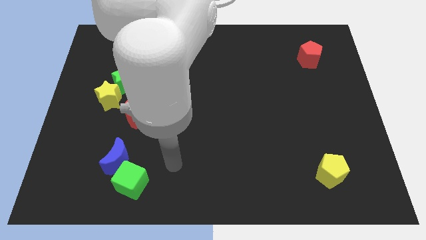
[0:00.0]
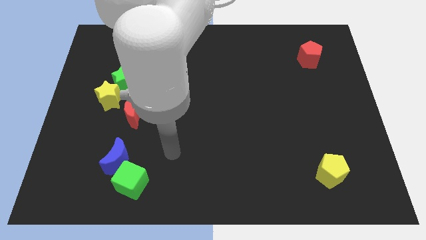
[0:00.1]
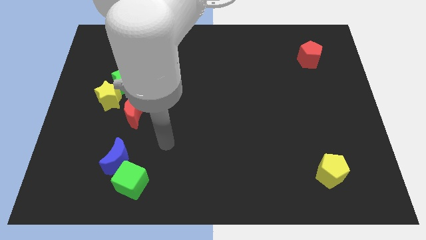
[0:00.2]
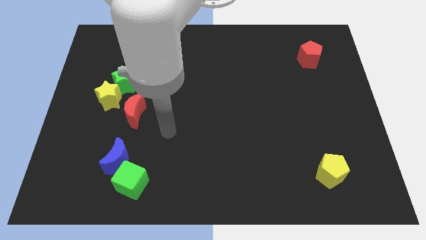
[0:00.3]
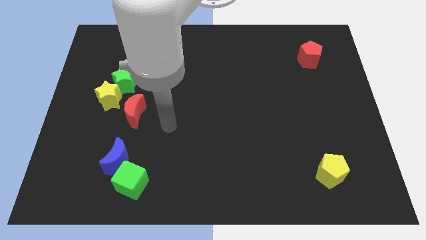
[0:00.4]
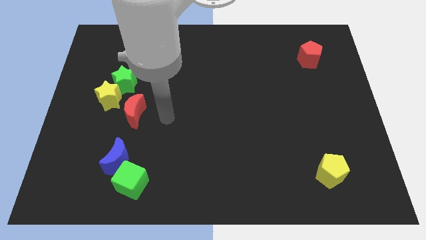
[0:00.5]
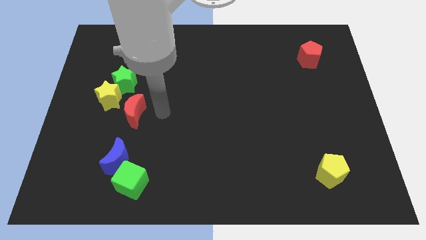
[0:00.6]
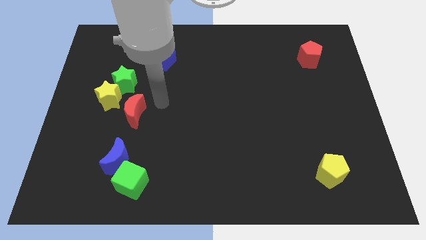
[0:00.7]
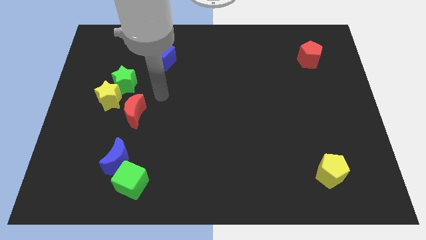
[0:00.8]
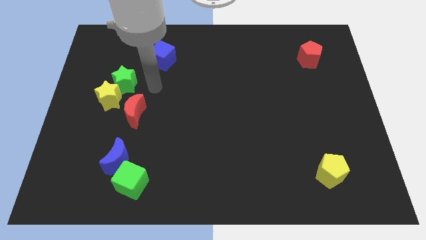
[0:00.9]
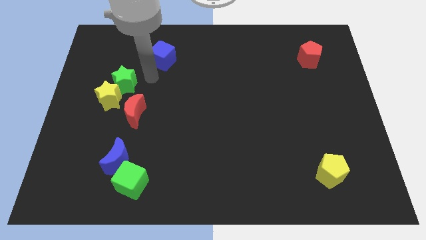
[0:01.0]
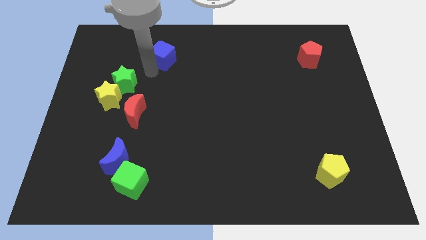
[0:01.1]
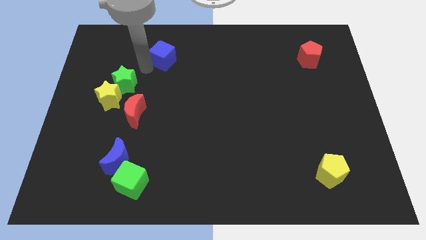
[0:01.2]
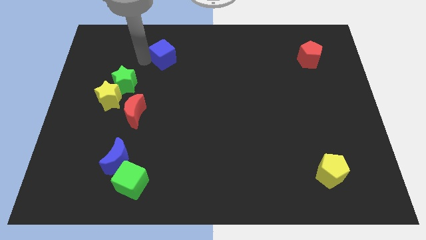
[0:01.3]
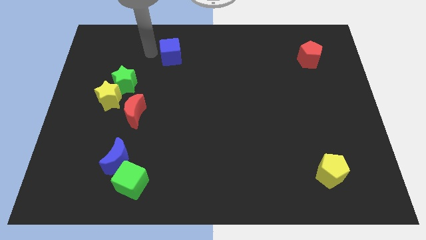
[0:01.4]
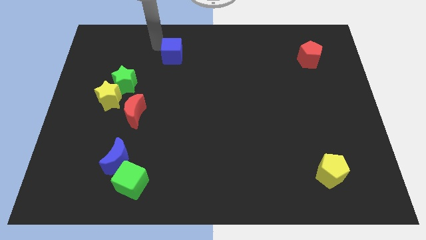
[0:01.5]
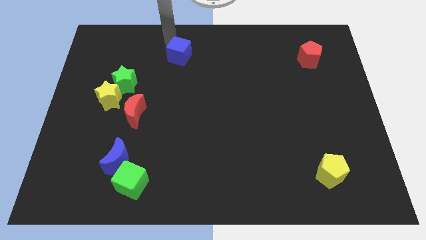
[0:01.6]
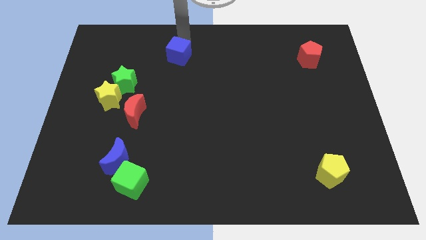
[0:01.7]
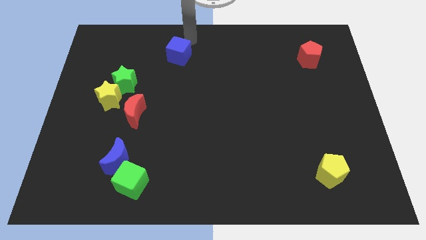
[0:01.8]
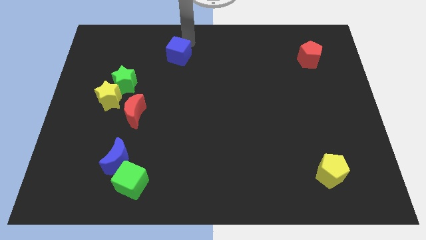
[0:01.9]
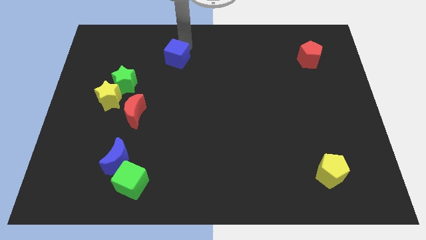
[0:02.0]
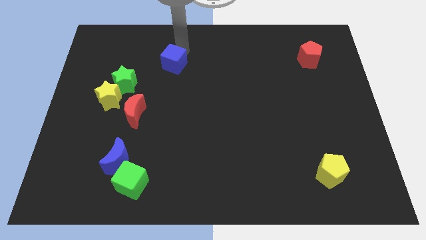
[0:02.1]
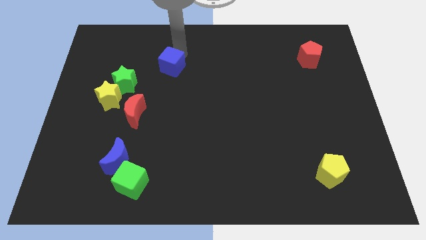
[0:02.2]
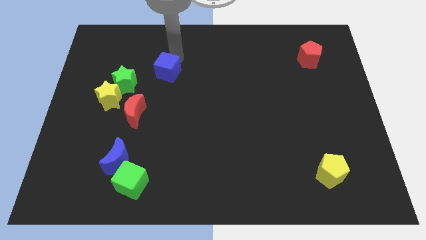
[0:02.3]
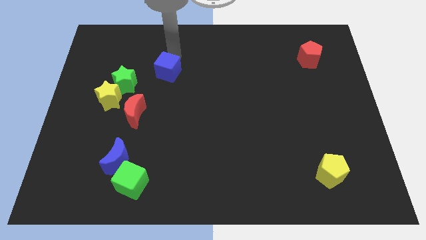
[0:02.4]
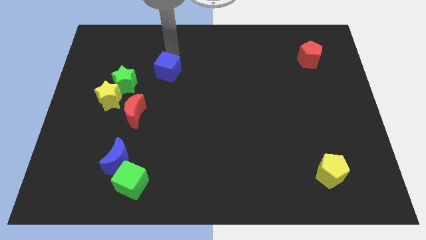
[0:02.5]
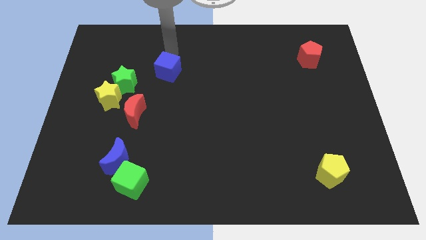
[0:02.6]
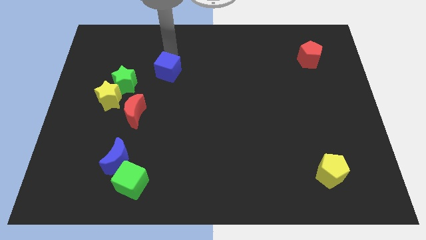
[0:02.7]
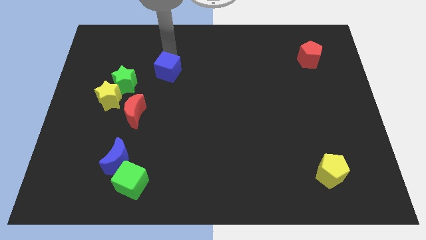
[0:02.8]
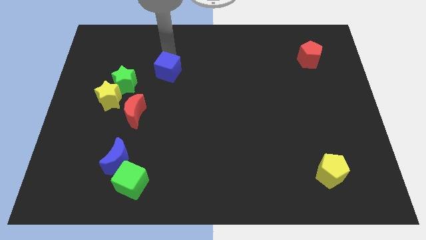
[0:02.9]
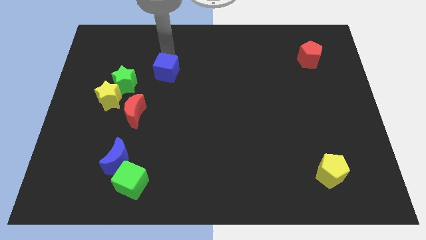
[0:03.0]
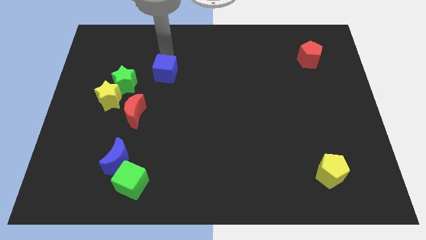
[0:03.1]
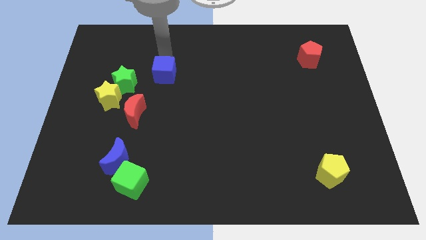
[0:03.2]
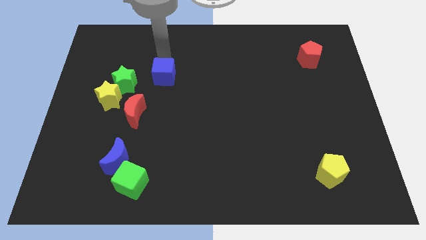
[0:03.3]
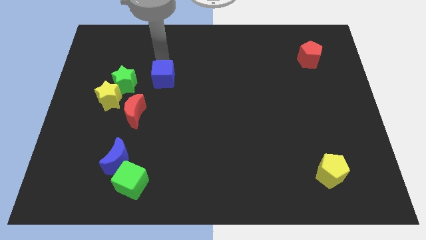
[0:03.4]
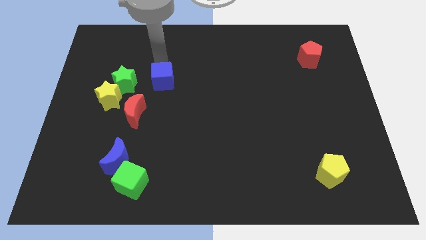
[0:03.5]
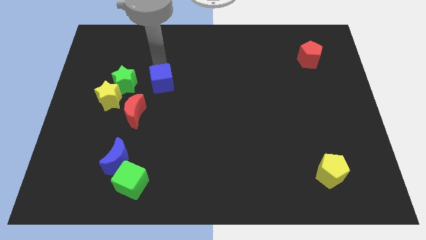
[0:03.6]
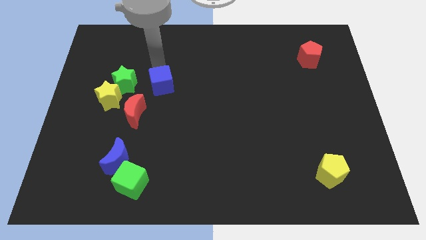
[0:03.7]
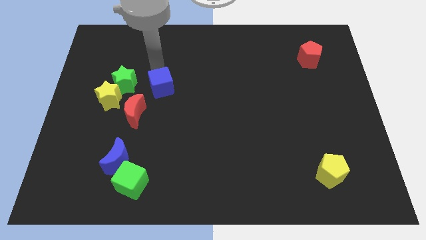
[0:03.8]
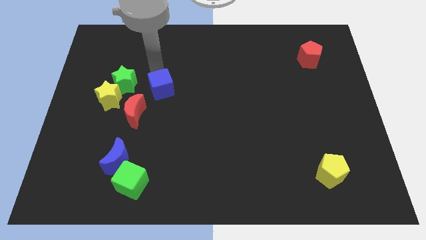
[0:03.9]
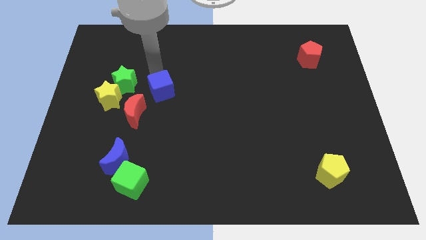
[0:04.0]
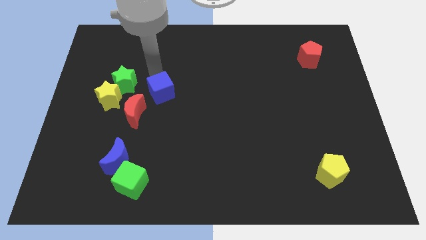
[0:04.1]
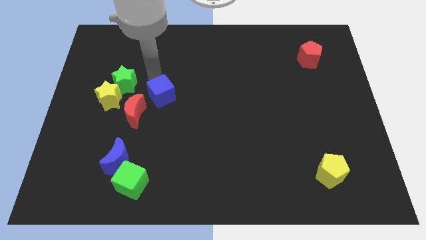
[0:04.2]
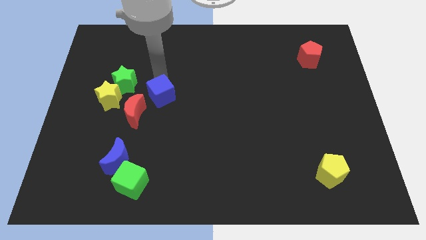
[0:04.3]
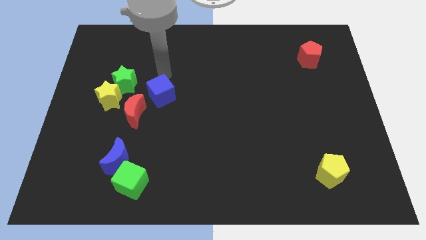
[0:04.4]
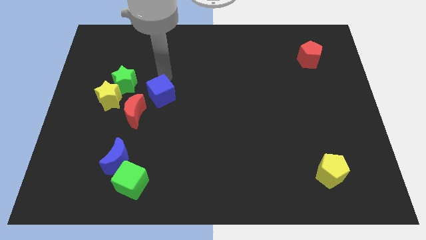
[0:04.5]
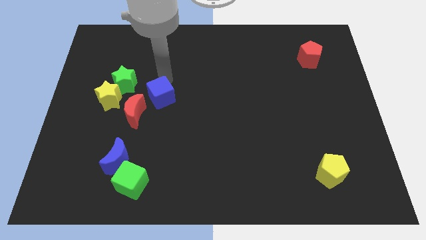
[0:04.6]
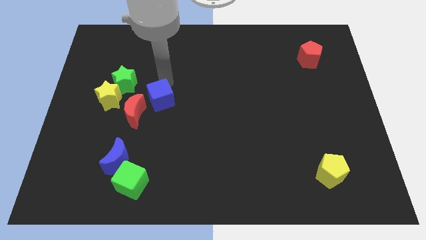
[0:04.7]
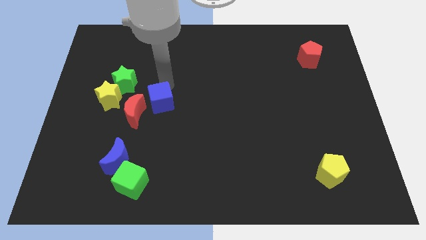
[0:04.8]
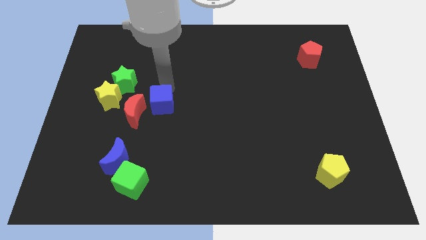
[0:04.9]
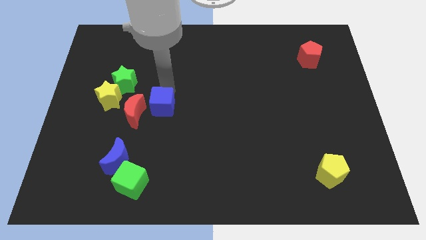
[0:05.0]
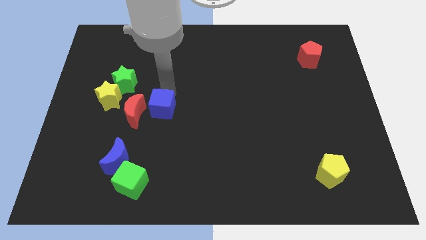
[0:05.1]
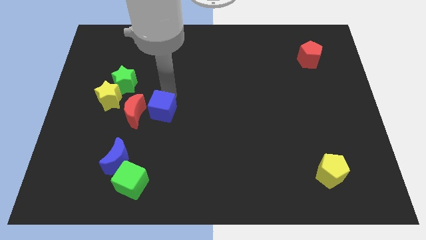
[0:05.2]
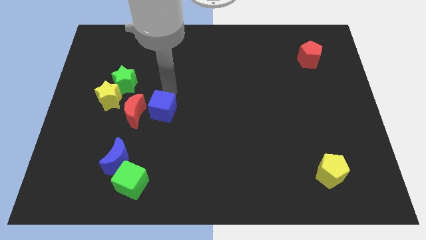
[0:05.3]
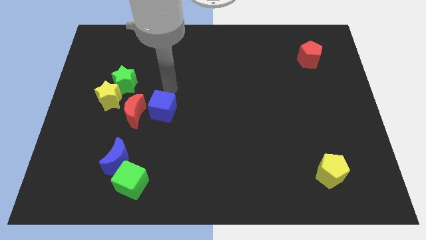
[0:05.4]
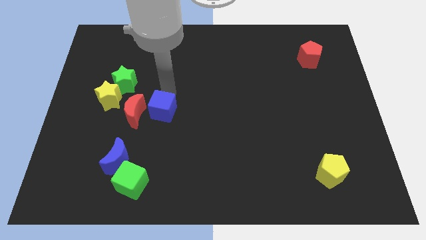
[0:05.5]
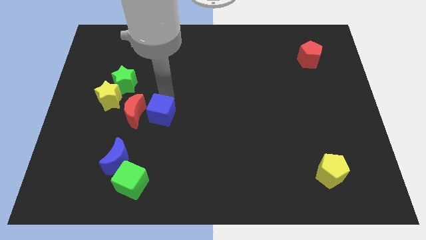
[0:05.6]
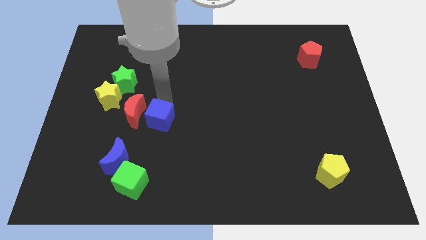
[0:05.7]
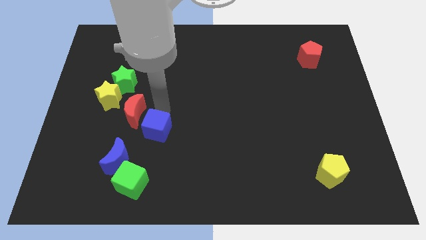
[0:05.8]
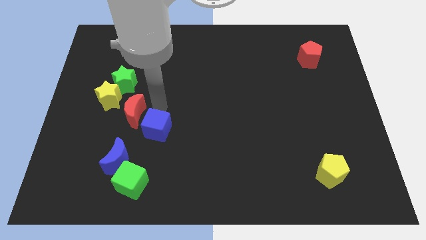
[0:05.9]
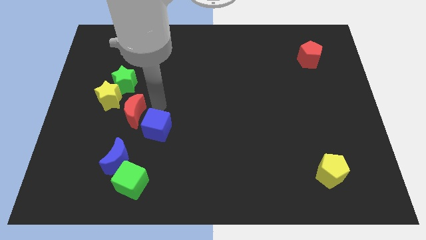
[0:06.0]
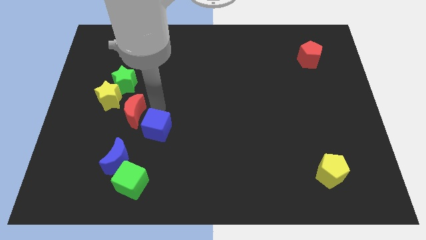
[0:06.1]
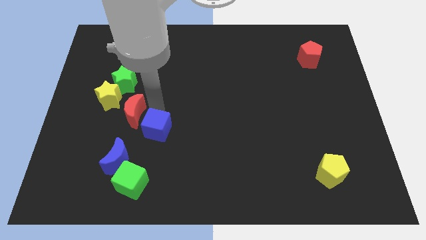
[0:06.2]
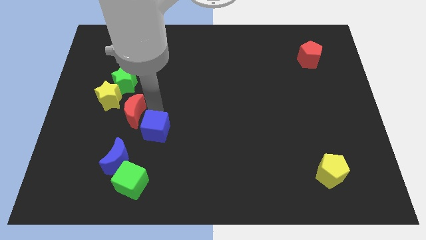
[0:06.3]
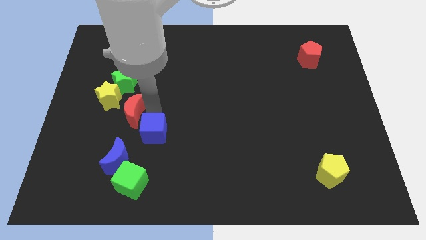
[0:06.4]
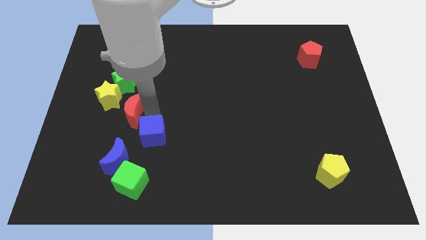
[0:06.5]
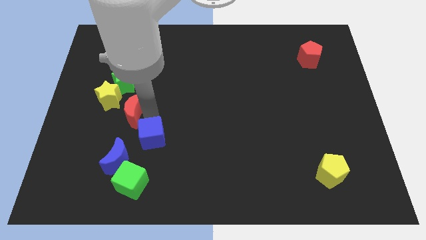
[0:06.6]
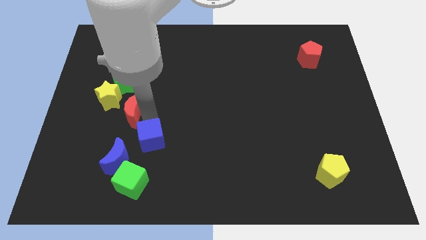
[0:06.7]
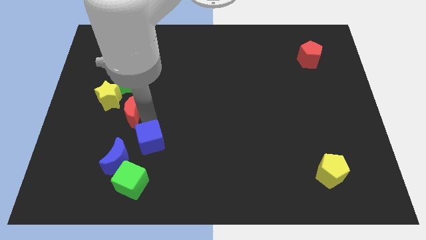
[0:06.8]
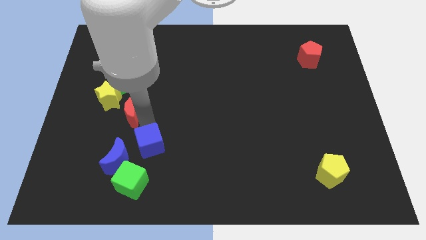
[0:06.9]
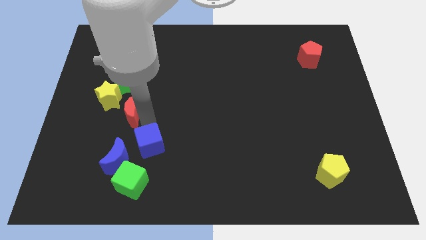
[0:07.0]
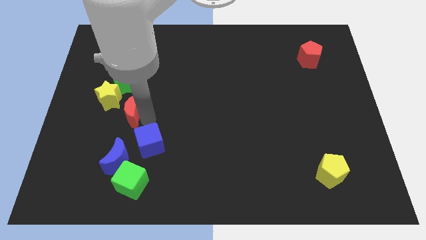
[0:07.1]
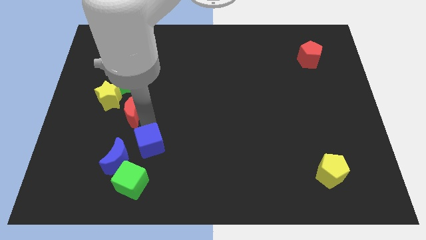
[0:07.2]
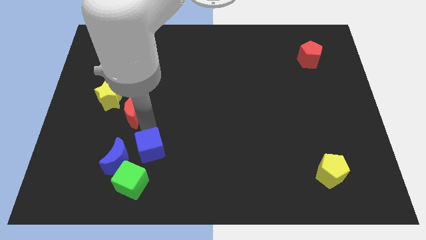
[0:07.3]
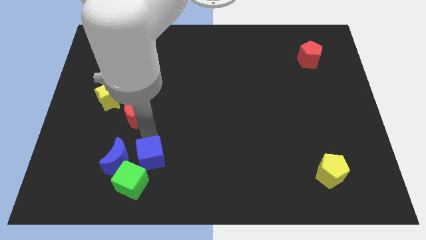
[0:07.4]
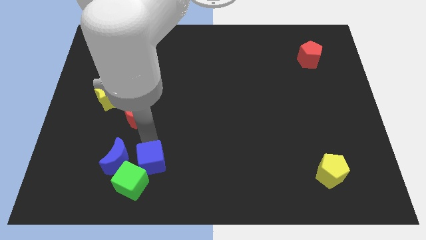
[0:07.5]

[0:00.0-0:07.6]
slide the blue cube diagonally down and to the right of the blue moon
